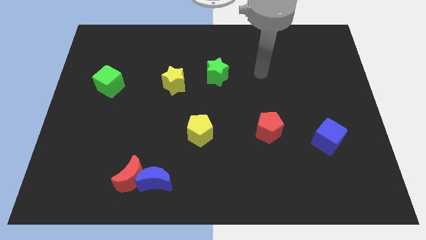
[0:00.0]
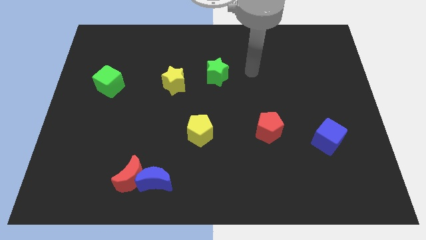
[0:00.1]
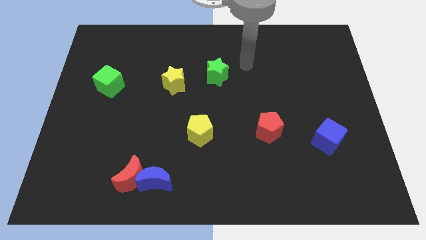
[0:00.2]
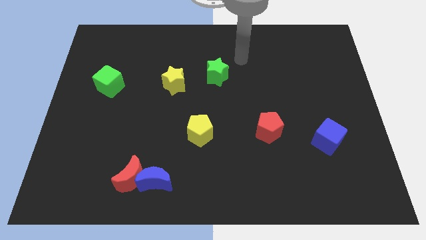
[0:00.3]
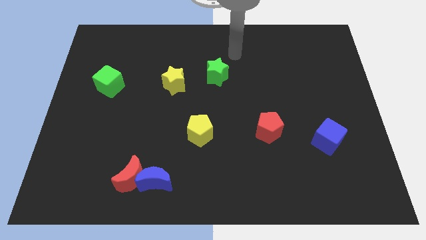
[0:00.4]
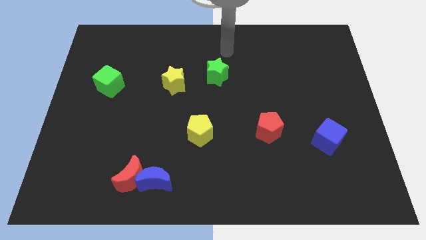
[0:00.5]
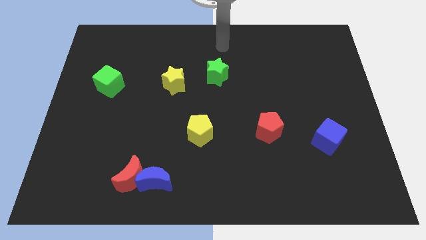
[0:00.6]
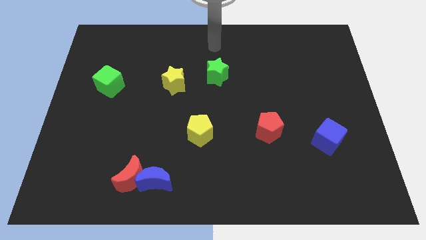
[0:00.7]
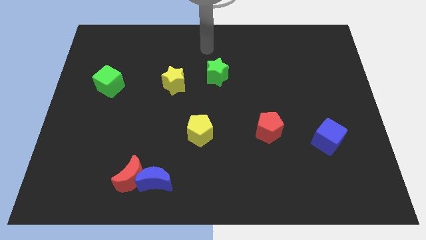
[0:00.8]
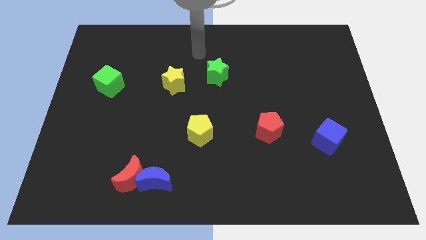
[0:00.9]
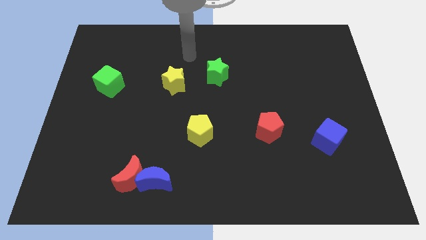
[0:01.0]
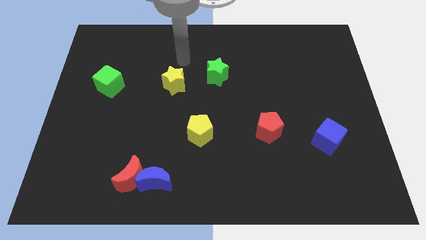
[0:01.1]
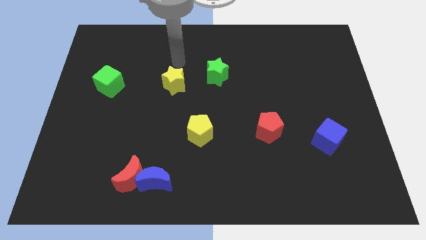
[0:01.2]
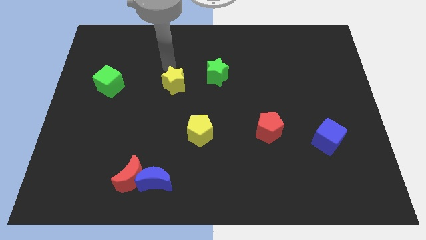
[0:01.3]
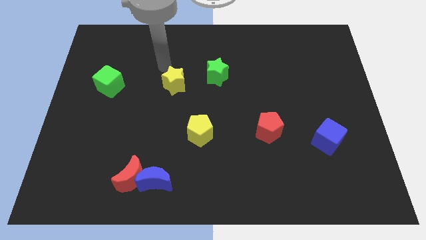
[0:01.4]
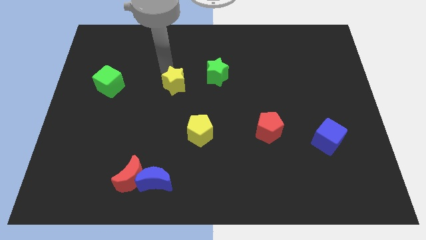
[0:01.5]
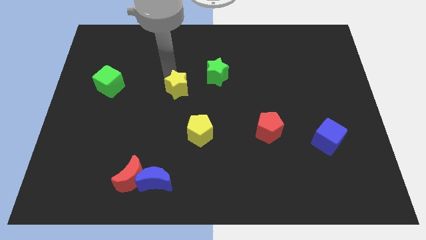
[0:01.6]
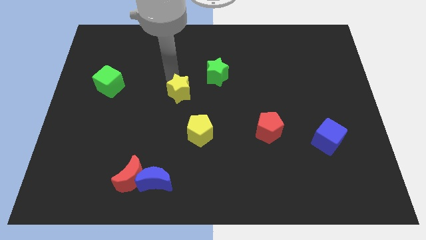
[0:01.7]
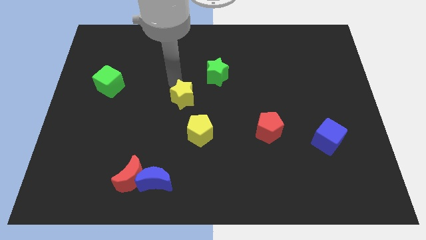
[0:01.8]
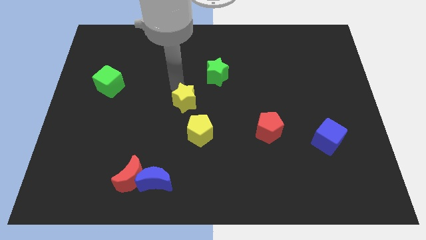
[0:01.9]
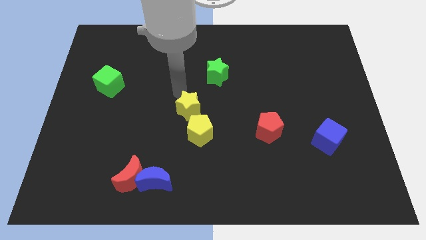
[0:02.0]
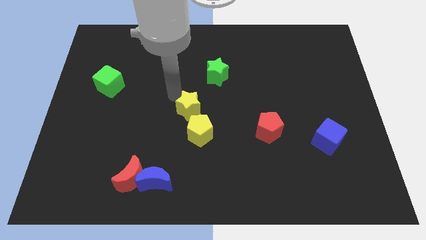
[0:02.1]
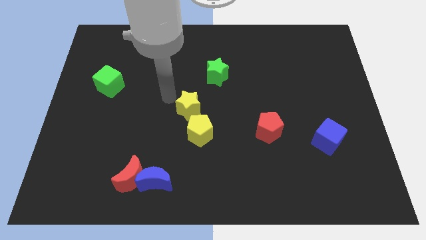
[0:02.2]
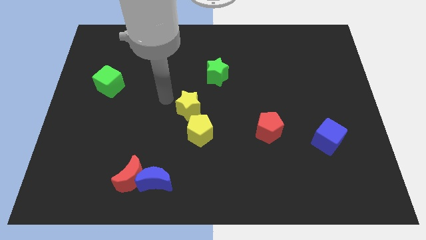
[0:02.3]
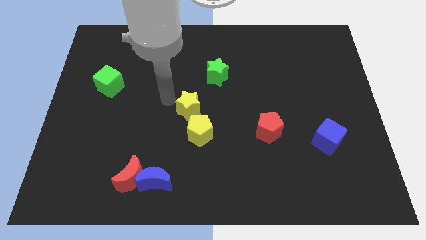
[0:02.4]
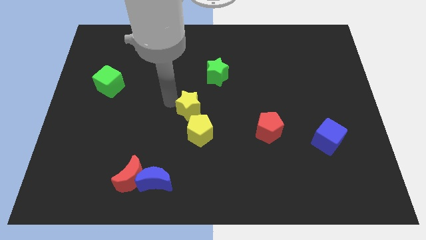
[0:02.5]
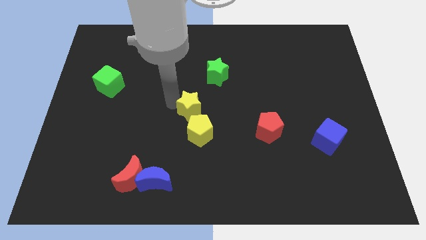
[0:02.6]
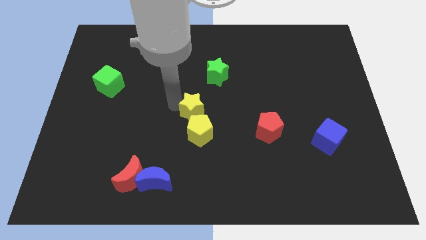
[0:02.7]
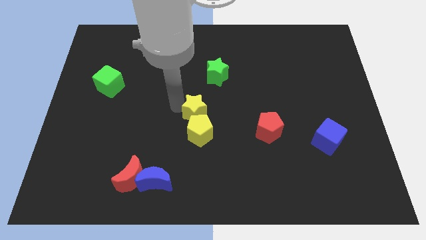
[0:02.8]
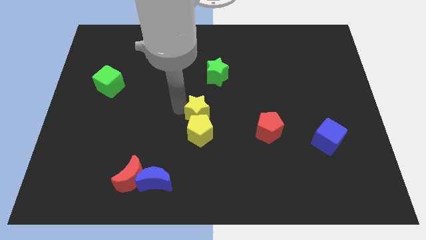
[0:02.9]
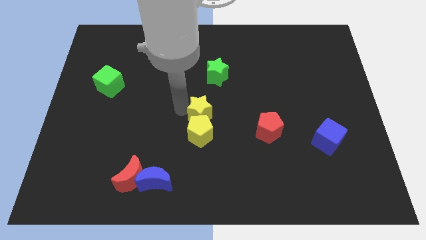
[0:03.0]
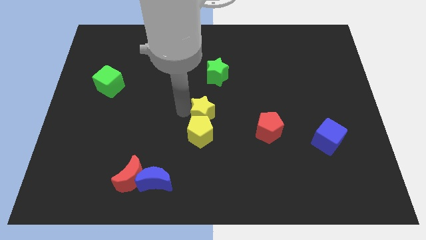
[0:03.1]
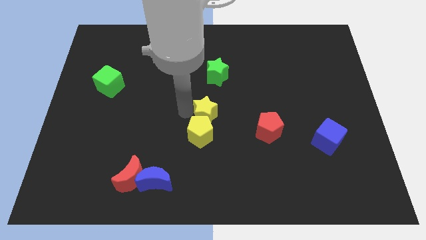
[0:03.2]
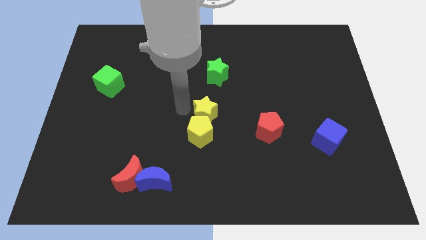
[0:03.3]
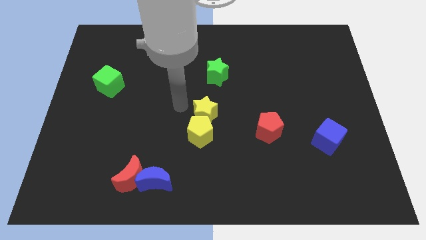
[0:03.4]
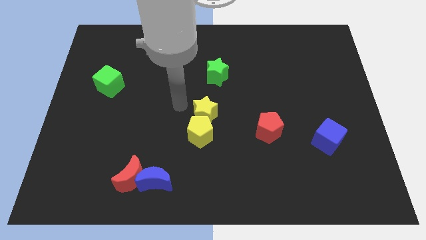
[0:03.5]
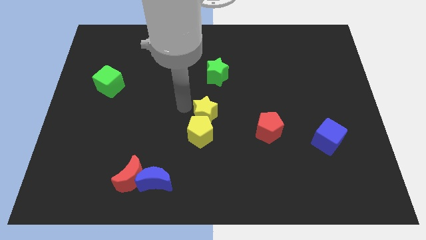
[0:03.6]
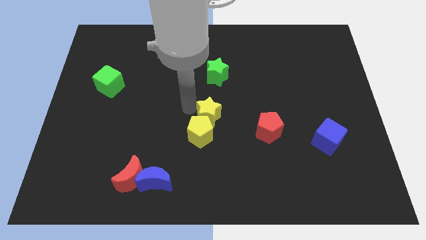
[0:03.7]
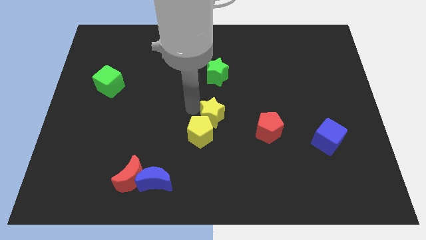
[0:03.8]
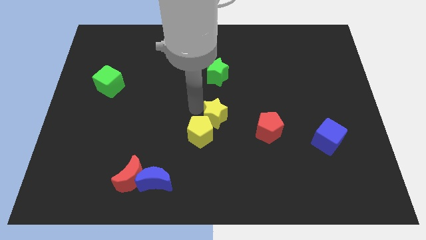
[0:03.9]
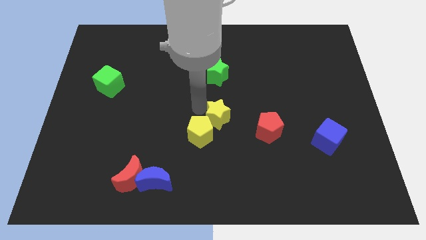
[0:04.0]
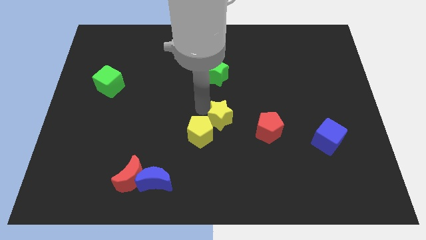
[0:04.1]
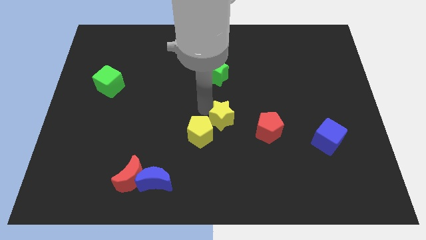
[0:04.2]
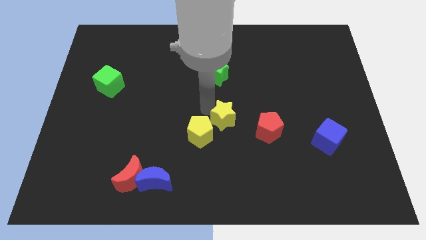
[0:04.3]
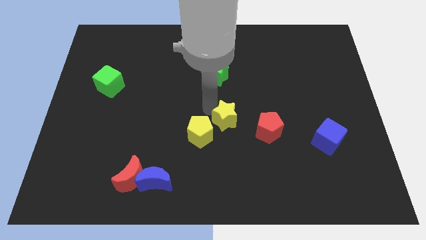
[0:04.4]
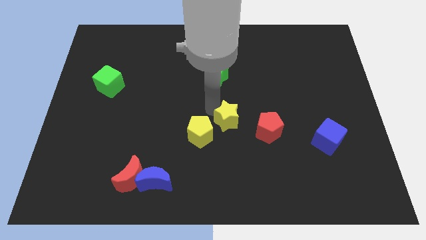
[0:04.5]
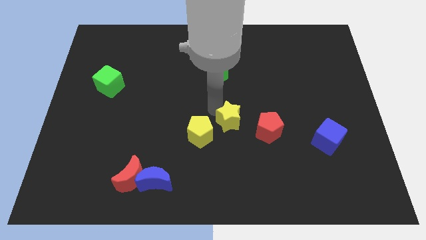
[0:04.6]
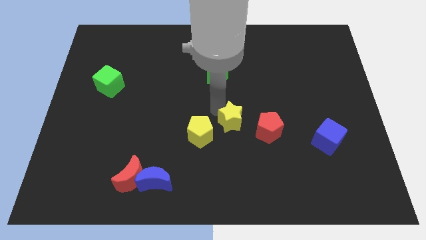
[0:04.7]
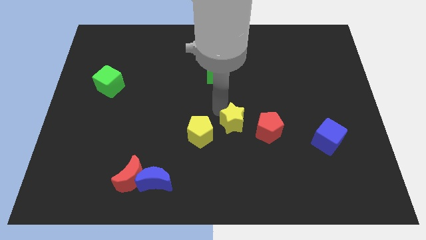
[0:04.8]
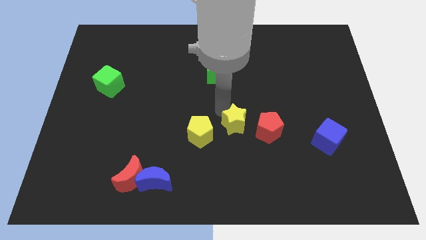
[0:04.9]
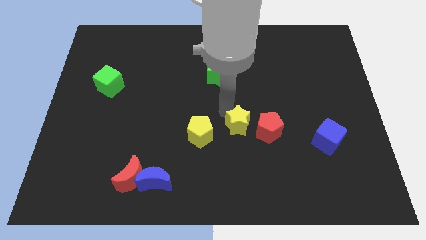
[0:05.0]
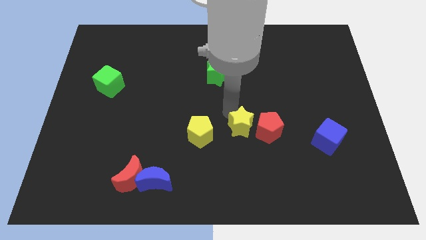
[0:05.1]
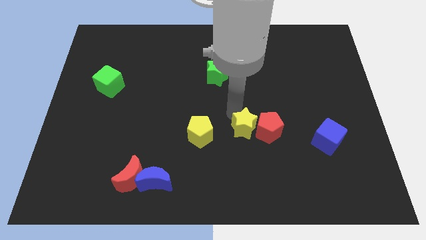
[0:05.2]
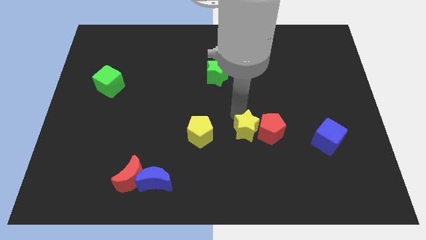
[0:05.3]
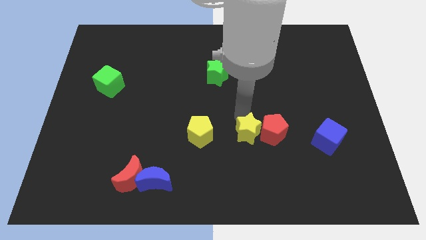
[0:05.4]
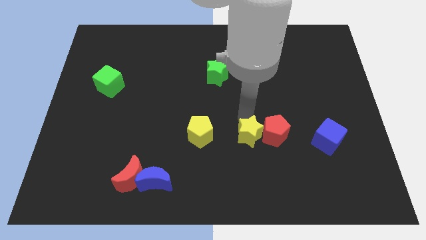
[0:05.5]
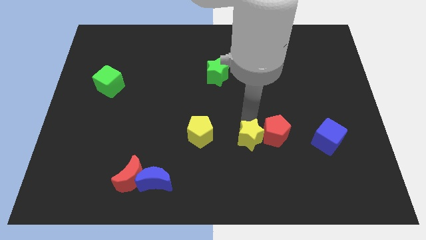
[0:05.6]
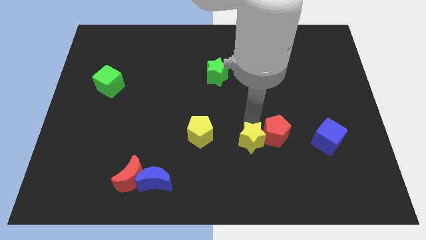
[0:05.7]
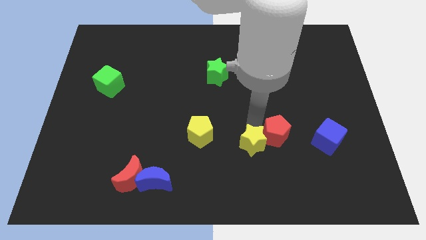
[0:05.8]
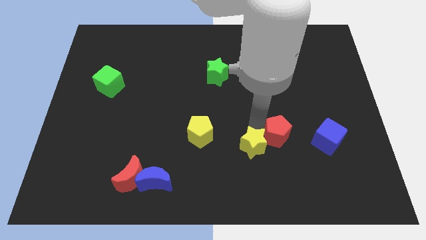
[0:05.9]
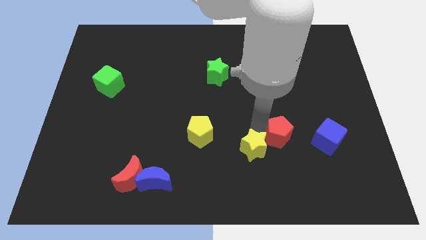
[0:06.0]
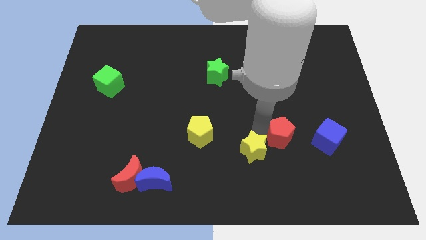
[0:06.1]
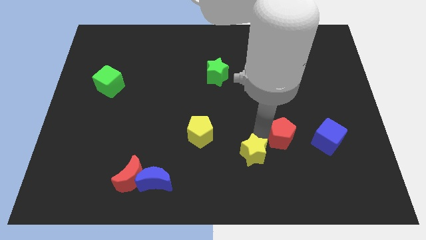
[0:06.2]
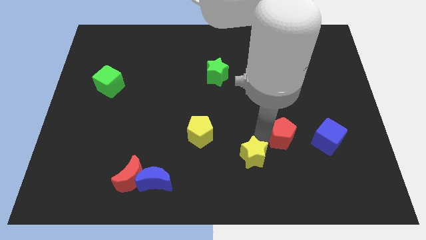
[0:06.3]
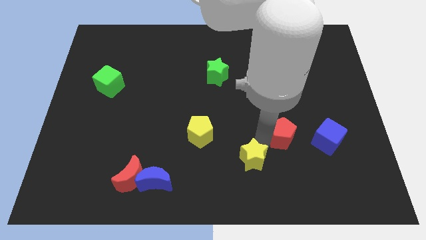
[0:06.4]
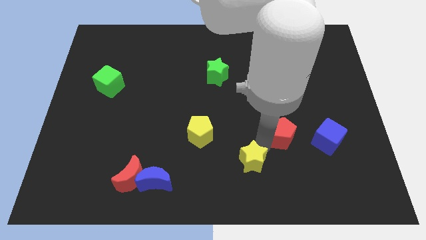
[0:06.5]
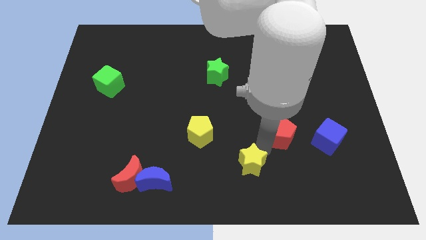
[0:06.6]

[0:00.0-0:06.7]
move the yellow star to the bottom side
